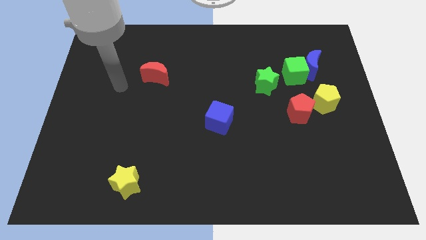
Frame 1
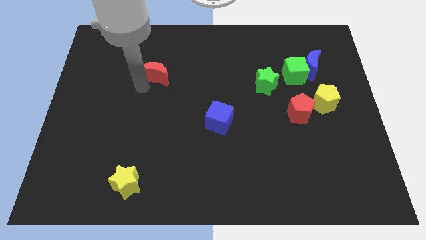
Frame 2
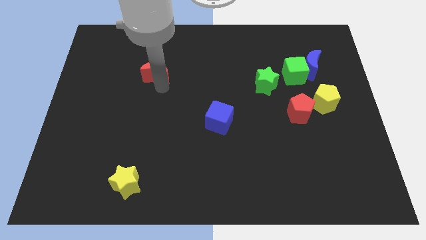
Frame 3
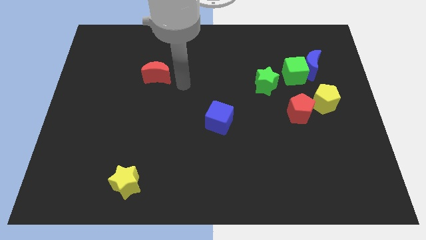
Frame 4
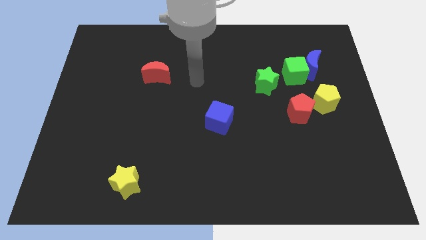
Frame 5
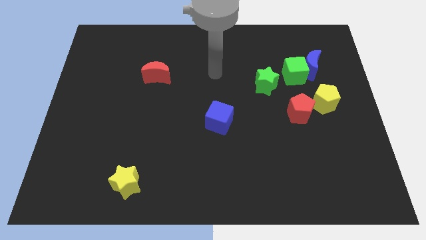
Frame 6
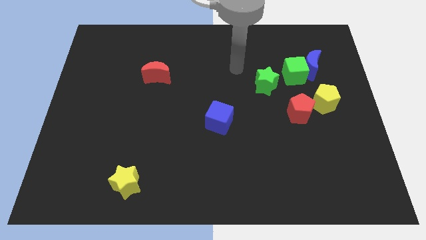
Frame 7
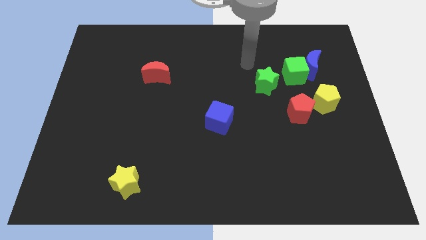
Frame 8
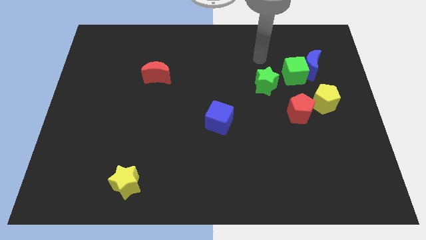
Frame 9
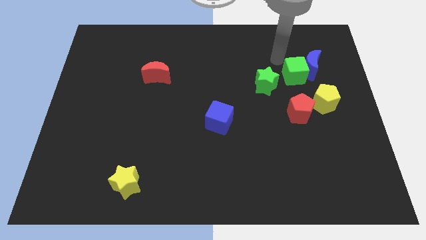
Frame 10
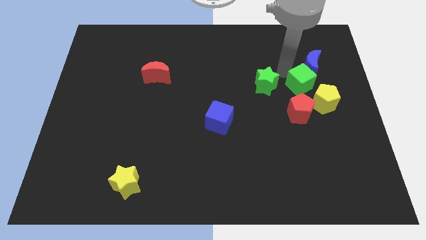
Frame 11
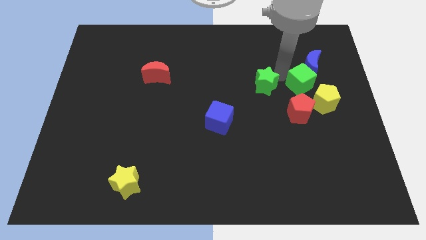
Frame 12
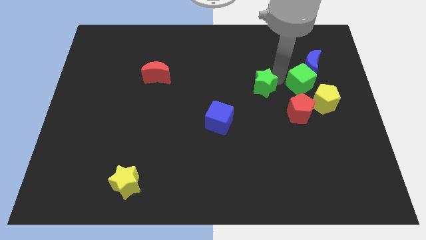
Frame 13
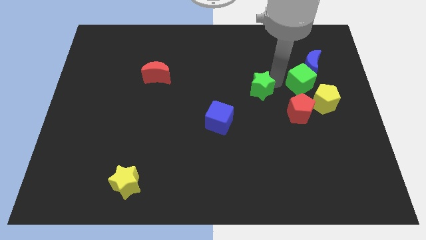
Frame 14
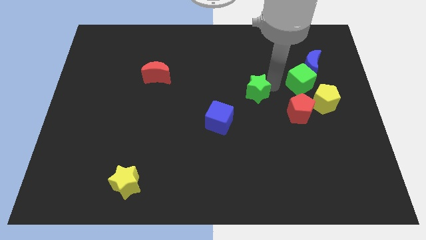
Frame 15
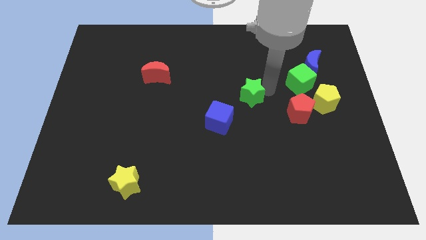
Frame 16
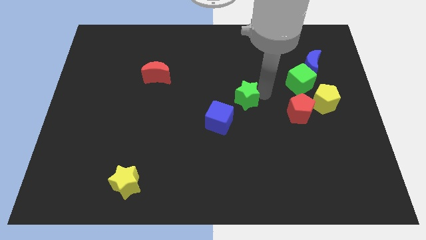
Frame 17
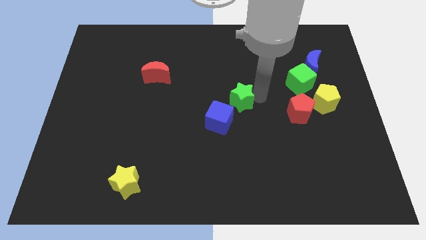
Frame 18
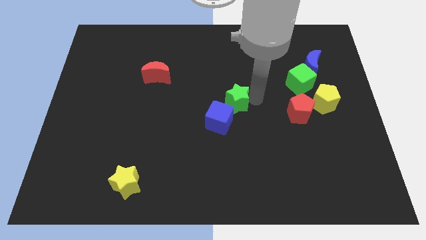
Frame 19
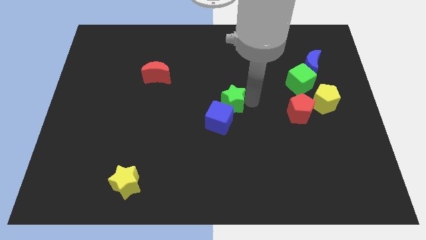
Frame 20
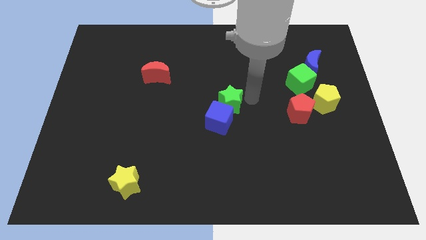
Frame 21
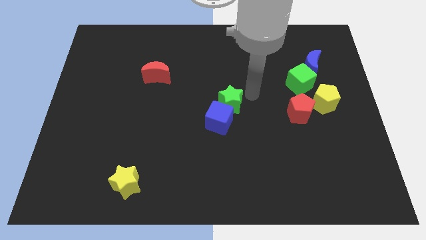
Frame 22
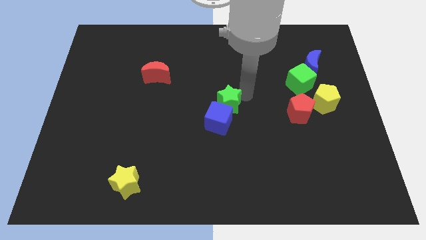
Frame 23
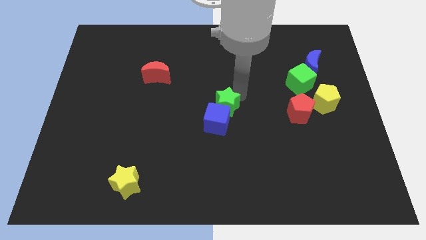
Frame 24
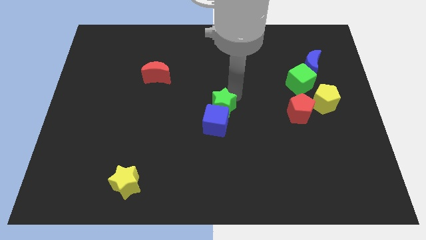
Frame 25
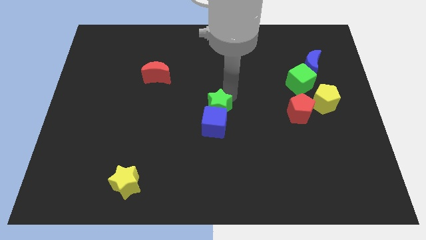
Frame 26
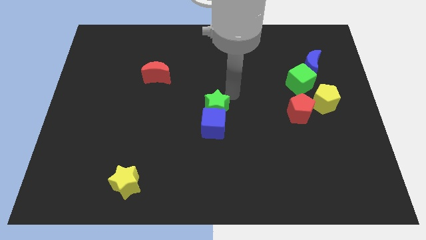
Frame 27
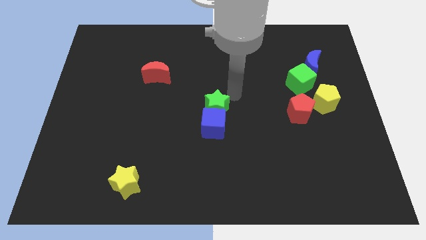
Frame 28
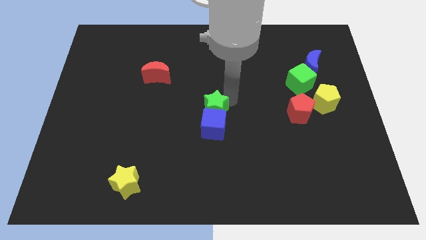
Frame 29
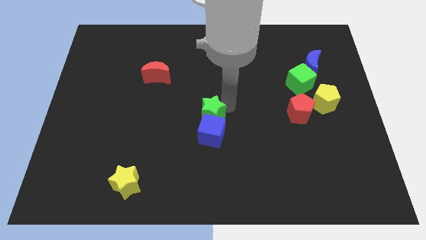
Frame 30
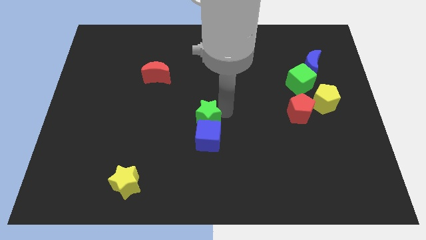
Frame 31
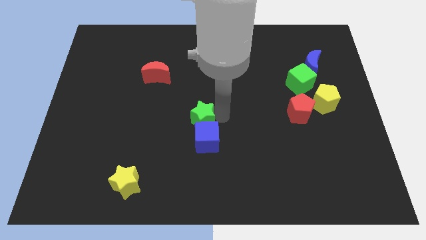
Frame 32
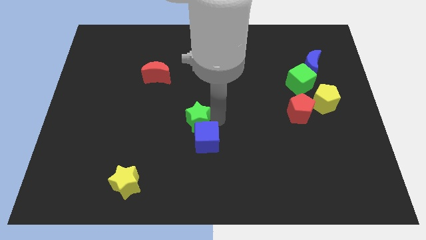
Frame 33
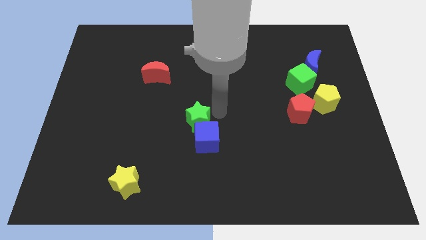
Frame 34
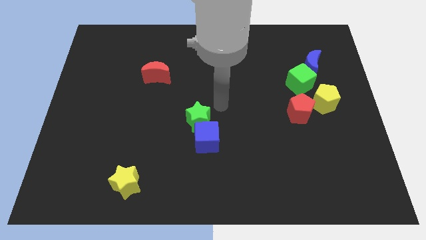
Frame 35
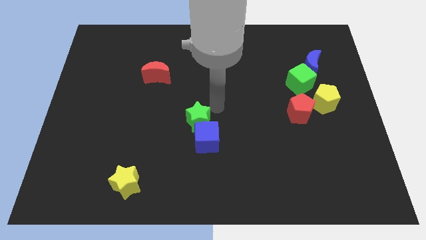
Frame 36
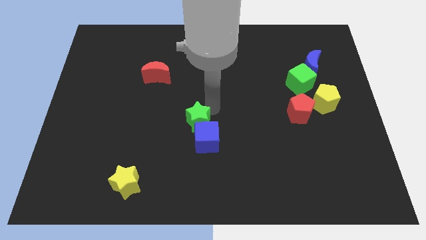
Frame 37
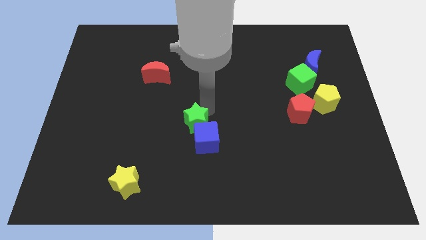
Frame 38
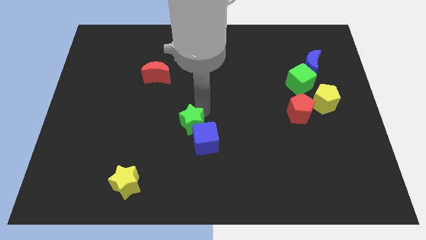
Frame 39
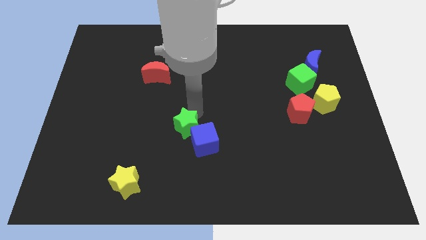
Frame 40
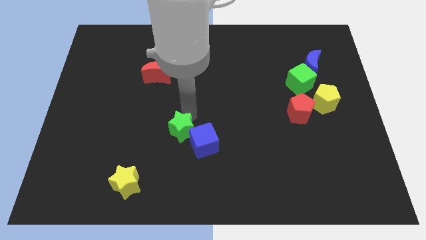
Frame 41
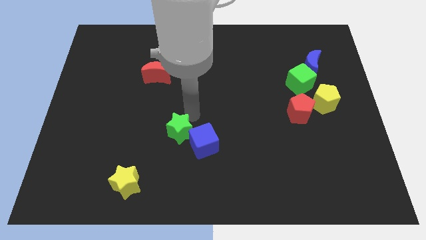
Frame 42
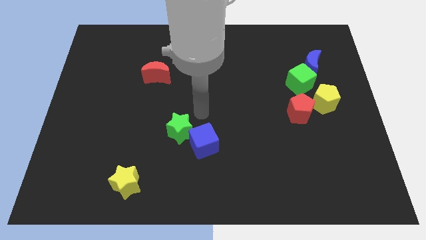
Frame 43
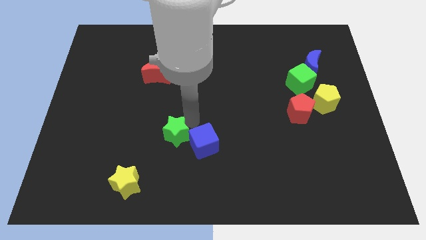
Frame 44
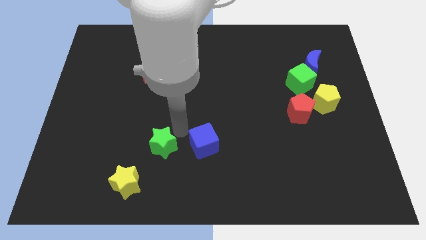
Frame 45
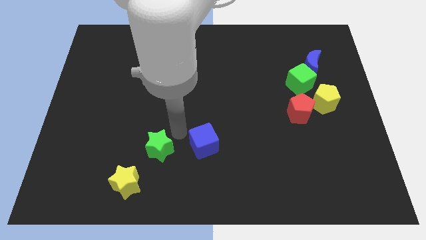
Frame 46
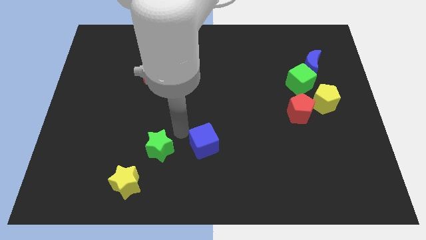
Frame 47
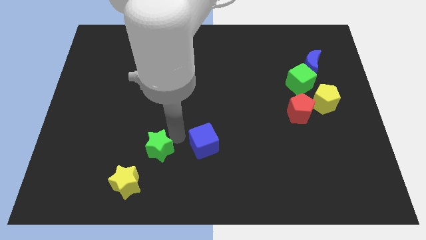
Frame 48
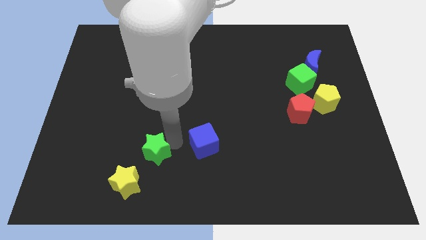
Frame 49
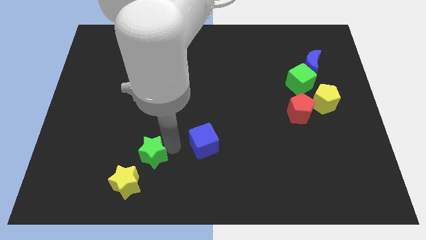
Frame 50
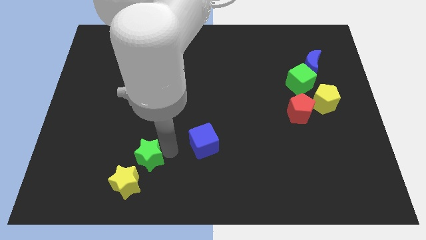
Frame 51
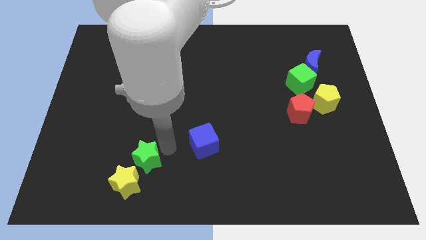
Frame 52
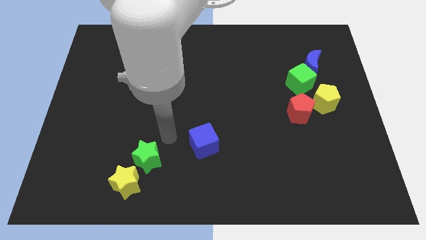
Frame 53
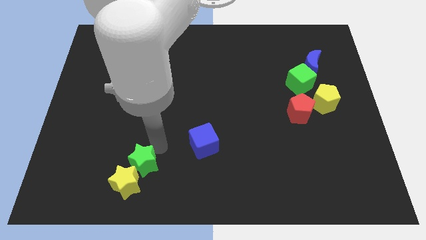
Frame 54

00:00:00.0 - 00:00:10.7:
slide the green star to the yellow star

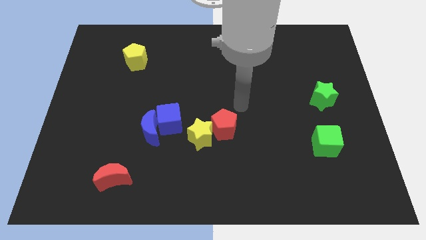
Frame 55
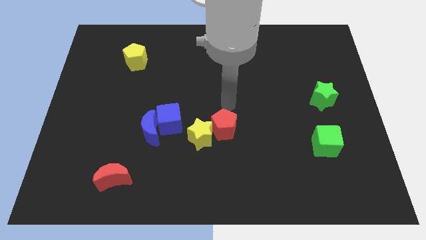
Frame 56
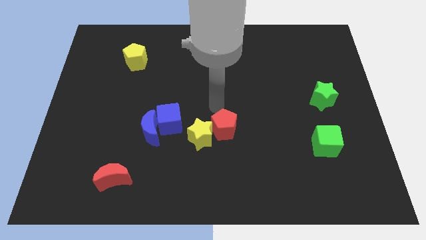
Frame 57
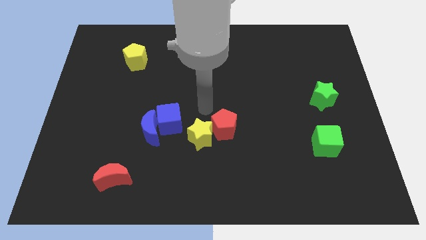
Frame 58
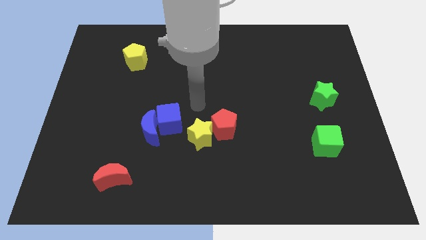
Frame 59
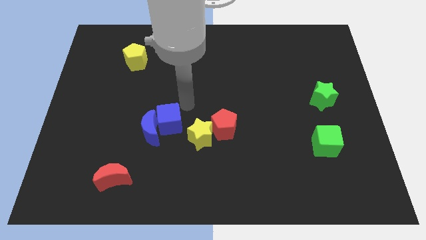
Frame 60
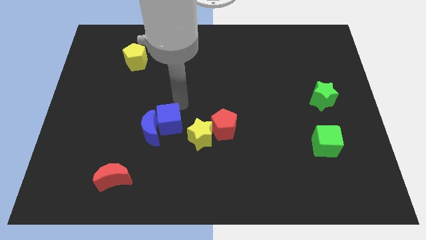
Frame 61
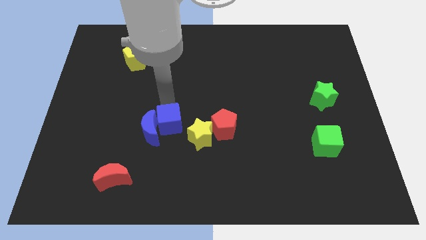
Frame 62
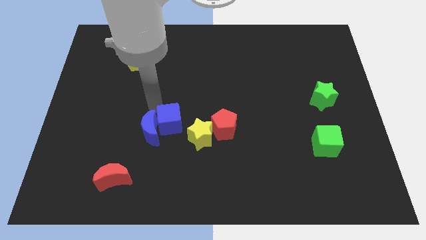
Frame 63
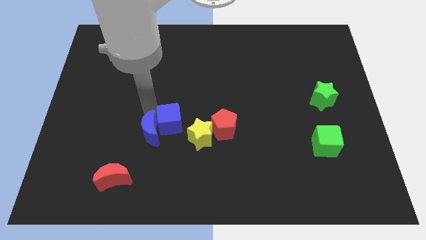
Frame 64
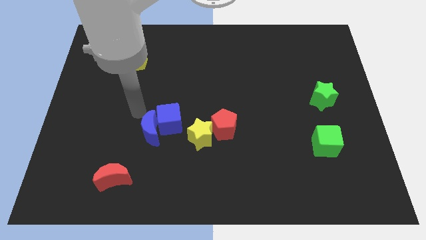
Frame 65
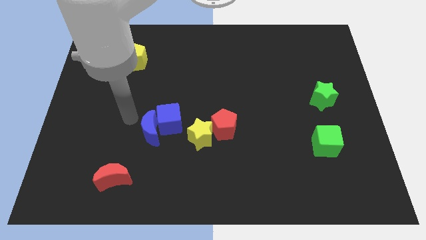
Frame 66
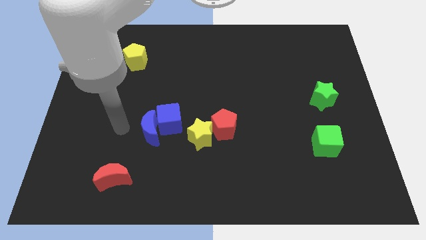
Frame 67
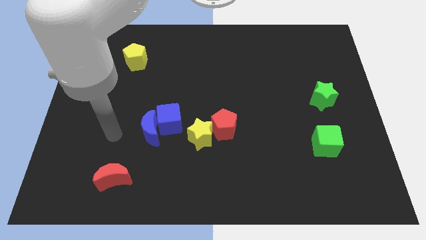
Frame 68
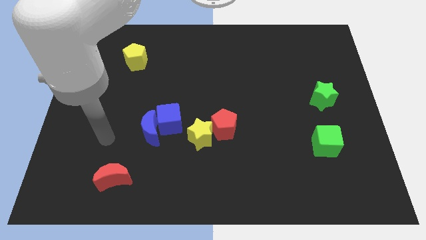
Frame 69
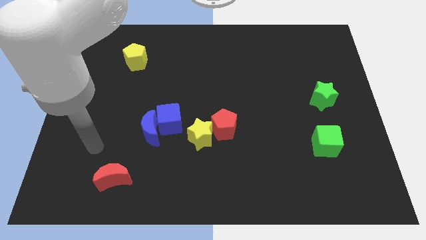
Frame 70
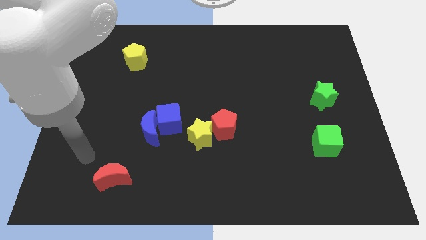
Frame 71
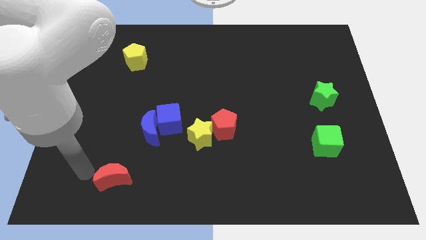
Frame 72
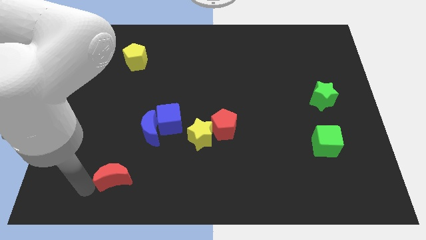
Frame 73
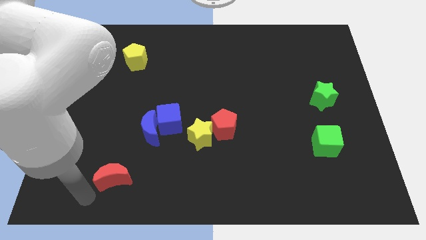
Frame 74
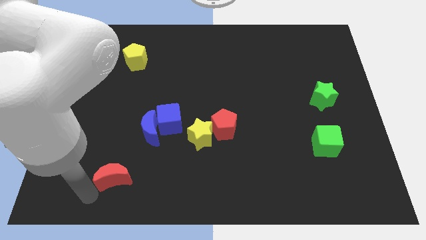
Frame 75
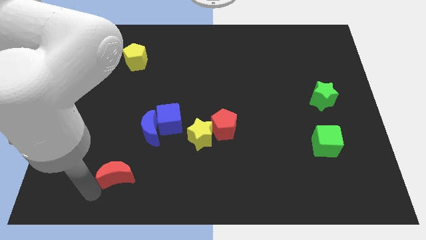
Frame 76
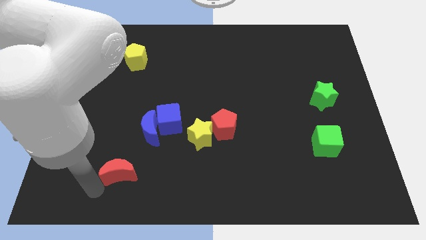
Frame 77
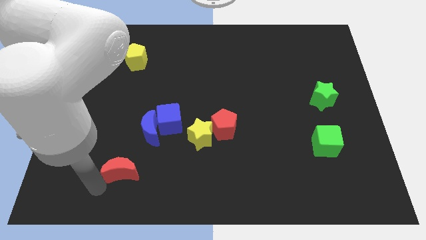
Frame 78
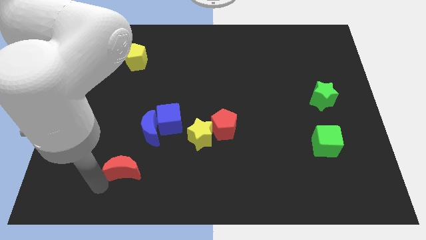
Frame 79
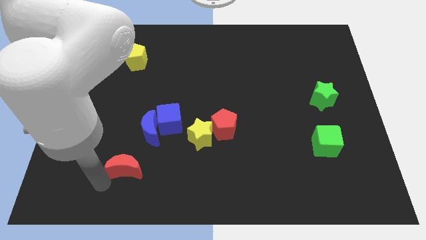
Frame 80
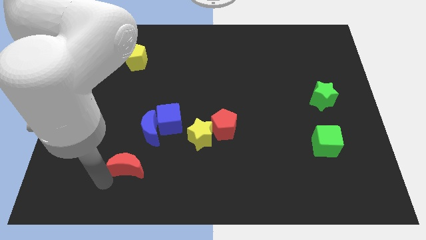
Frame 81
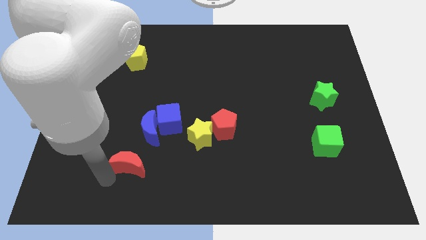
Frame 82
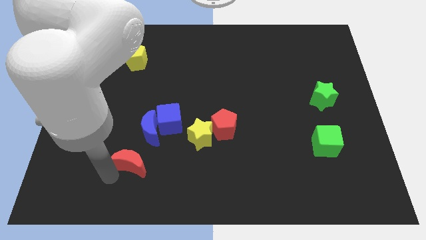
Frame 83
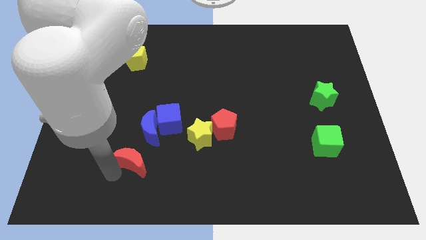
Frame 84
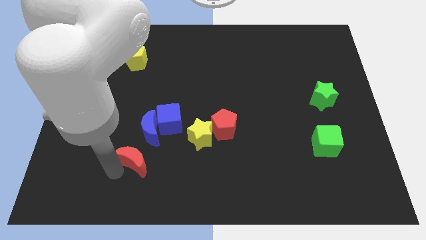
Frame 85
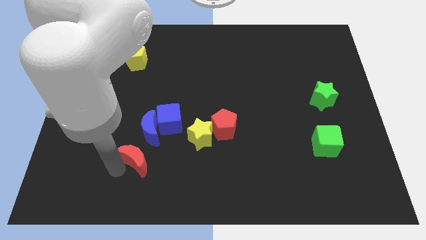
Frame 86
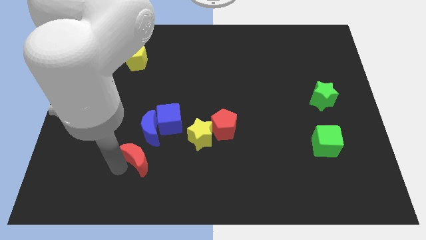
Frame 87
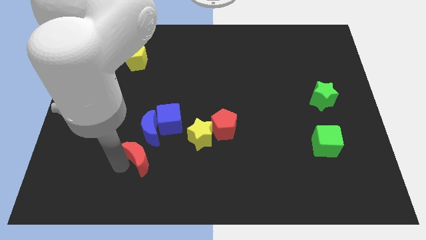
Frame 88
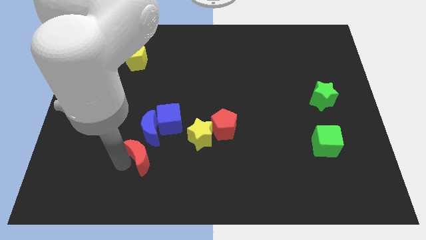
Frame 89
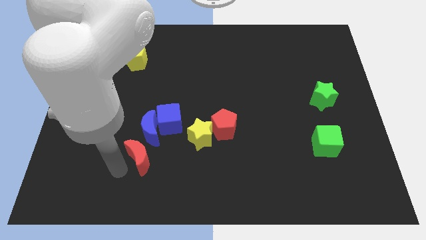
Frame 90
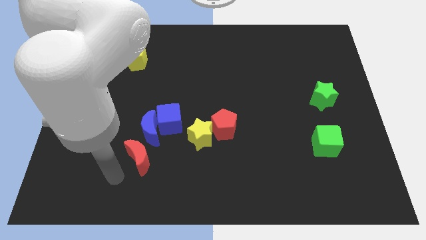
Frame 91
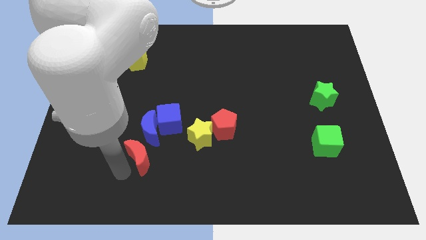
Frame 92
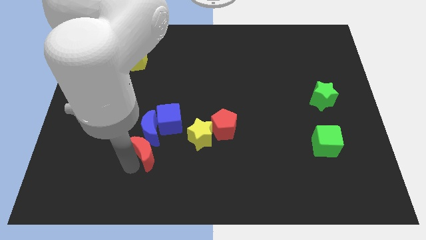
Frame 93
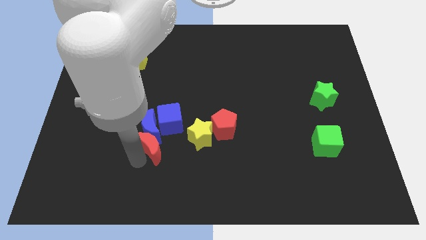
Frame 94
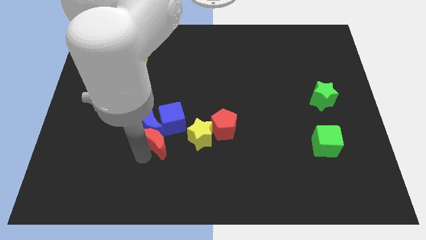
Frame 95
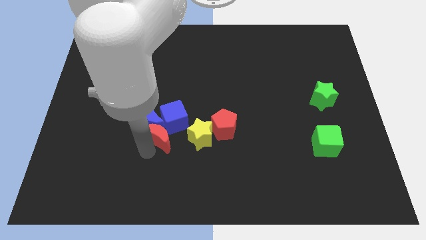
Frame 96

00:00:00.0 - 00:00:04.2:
push the red moon to the blue cube
